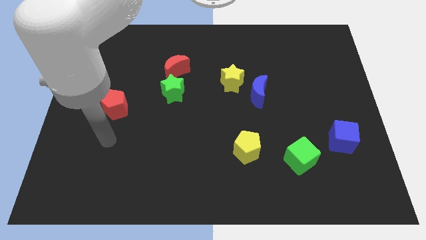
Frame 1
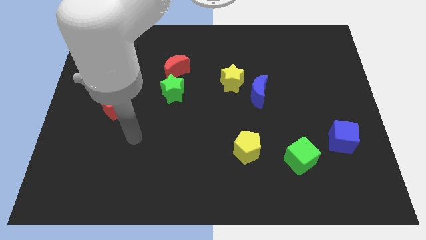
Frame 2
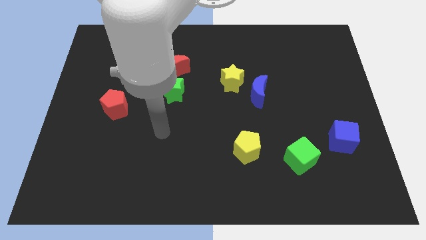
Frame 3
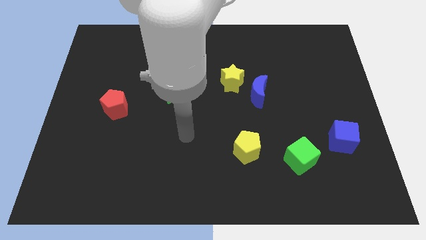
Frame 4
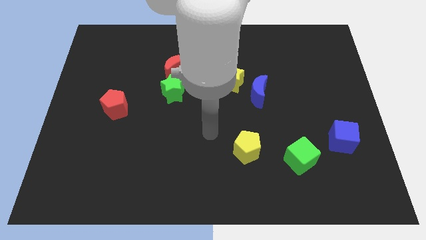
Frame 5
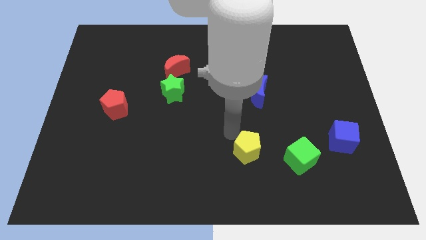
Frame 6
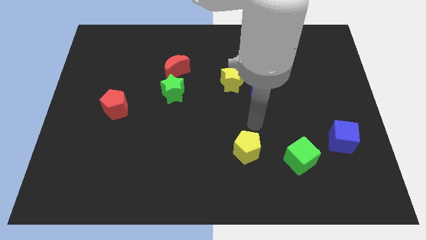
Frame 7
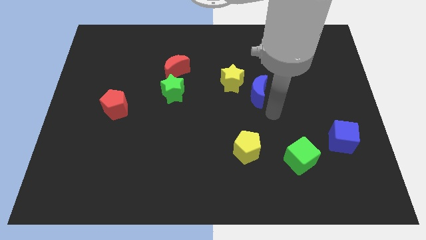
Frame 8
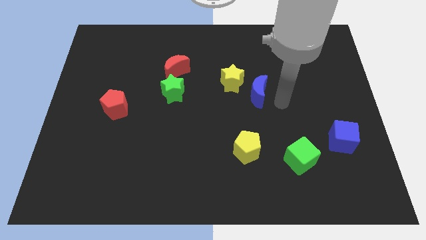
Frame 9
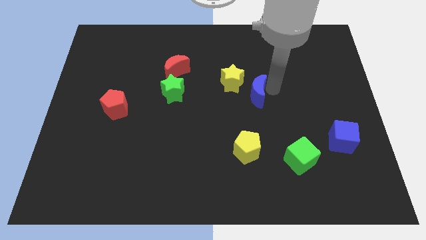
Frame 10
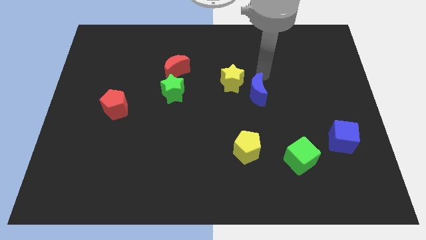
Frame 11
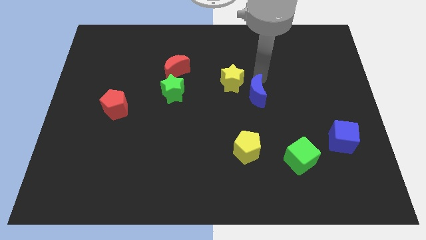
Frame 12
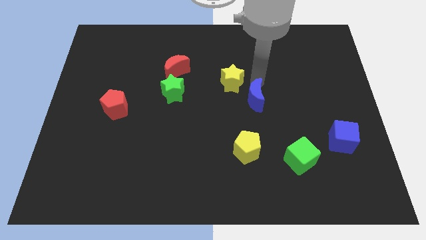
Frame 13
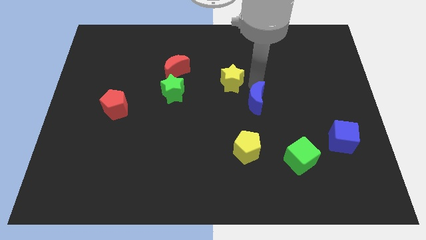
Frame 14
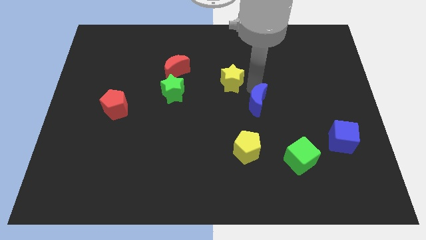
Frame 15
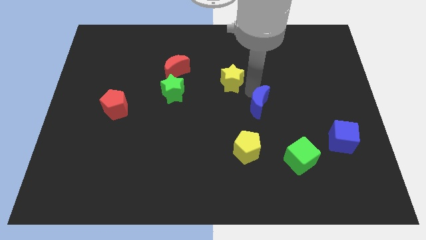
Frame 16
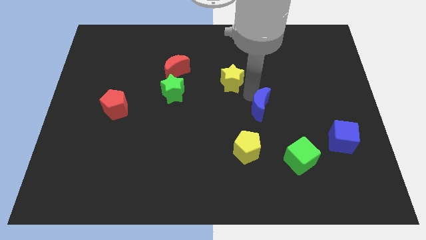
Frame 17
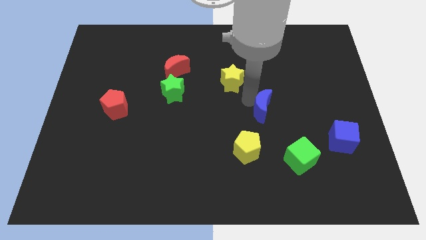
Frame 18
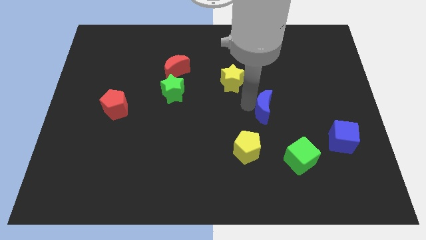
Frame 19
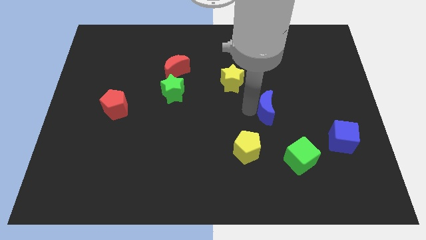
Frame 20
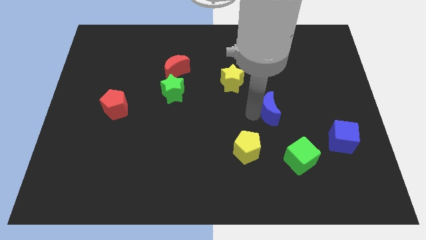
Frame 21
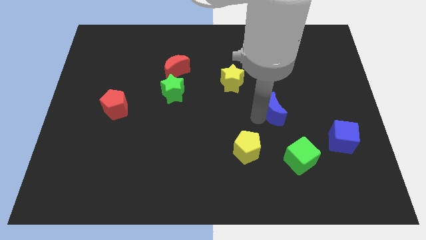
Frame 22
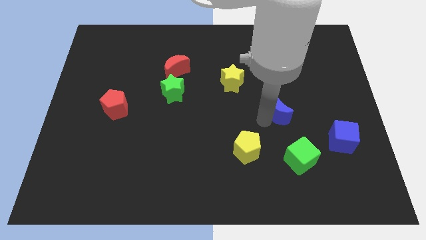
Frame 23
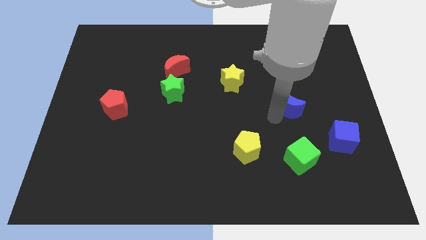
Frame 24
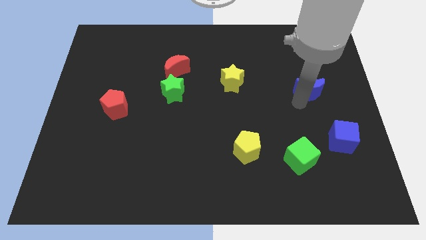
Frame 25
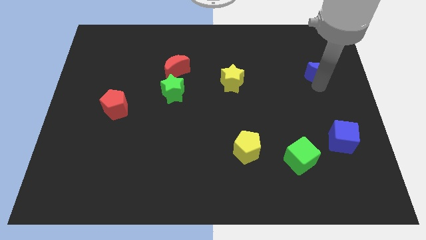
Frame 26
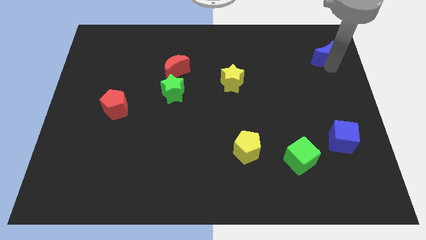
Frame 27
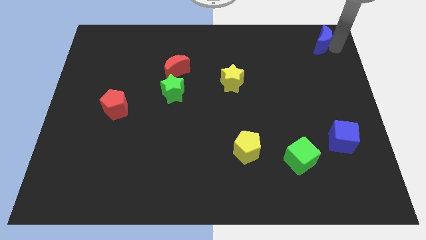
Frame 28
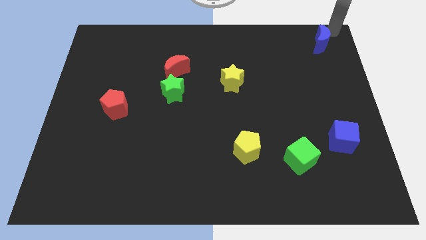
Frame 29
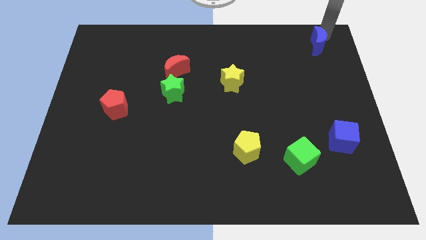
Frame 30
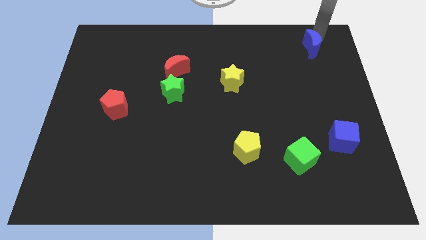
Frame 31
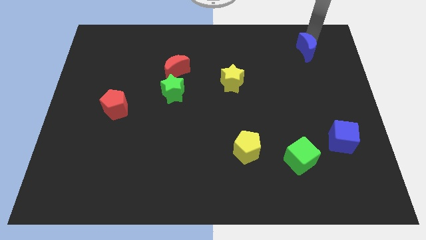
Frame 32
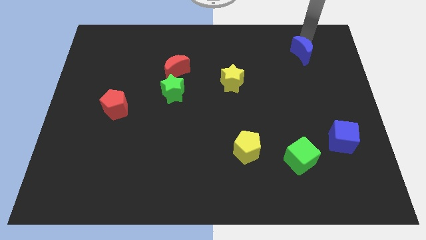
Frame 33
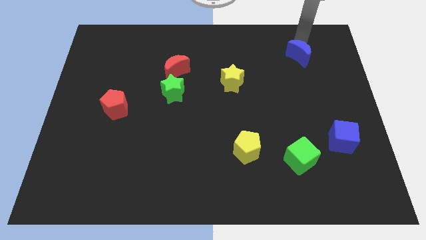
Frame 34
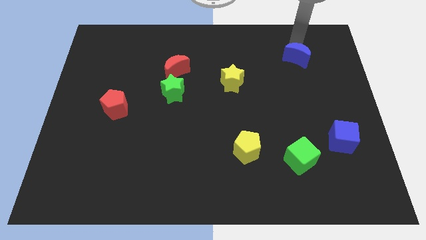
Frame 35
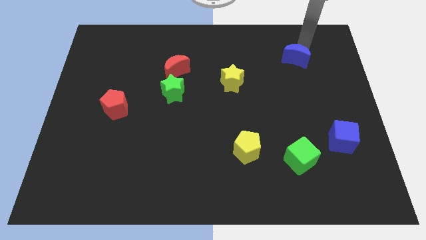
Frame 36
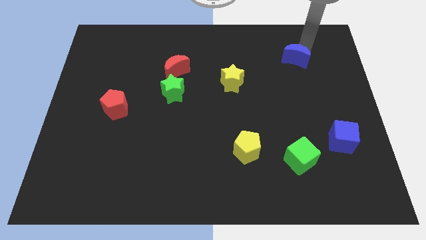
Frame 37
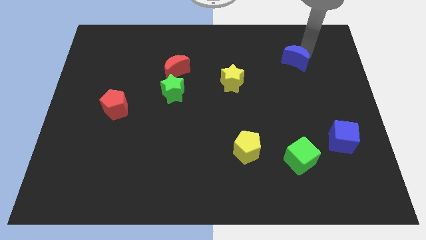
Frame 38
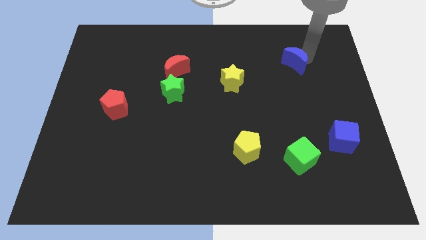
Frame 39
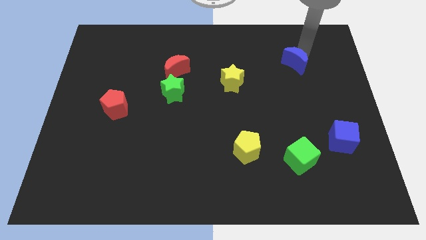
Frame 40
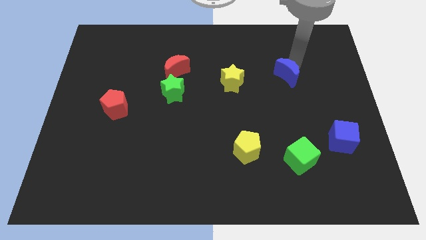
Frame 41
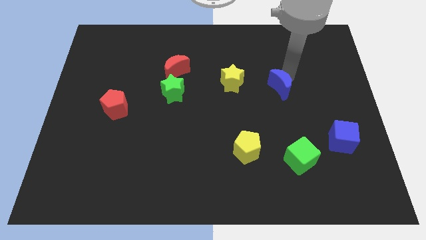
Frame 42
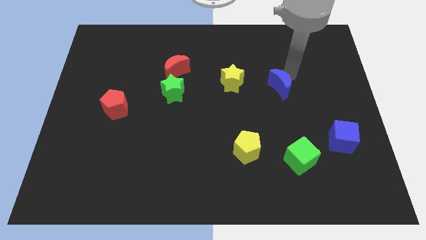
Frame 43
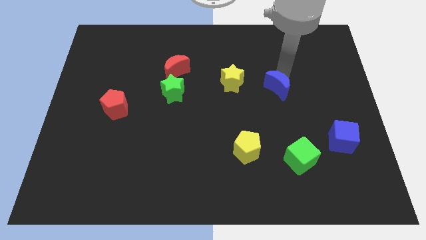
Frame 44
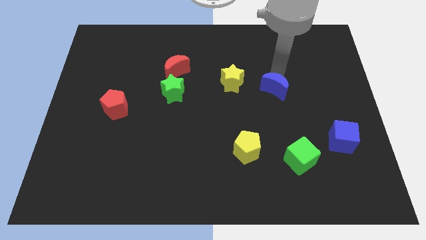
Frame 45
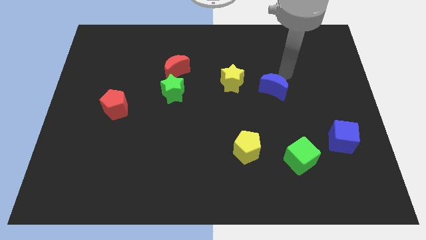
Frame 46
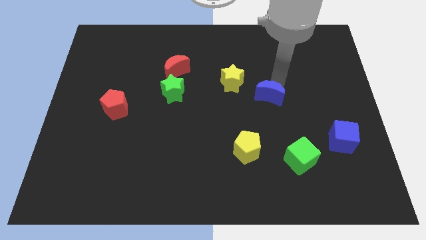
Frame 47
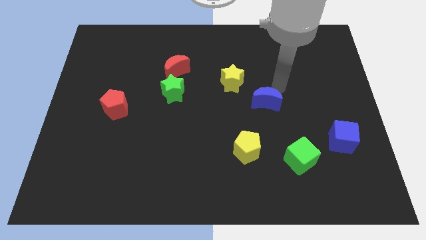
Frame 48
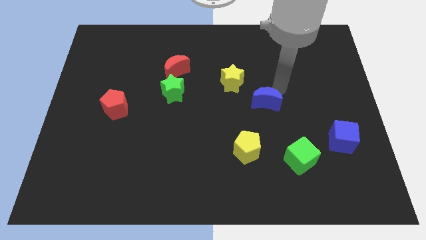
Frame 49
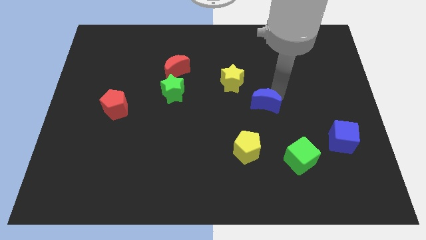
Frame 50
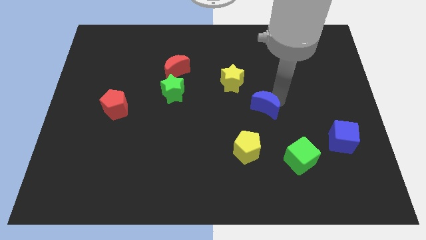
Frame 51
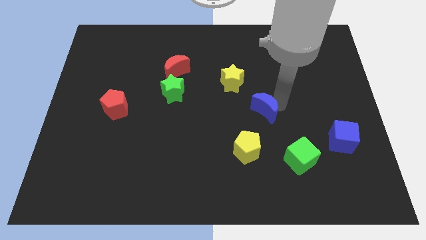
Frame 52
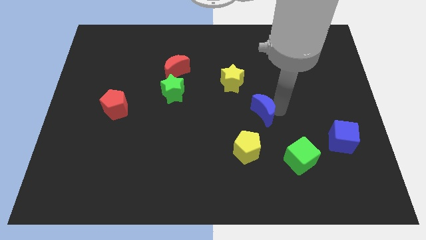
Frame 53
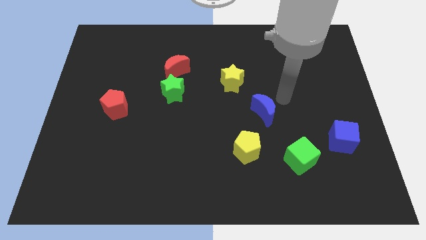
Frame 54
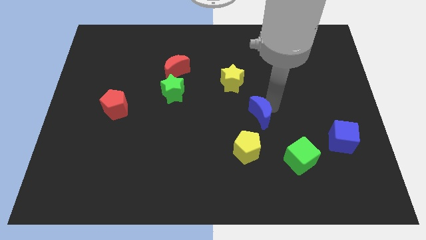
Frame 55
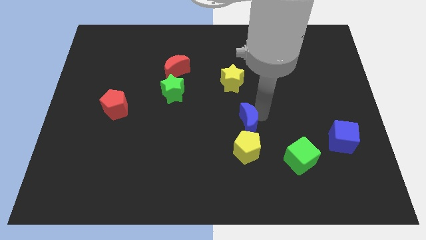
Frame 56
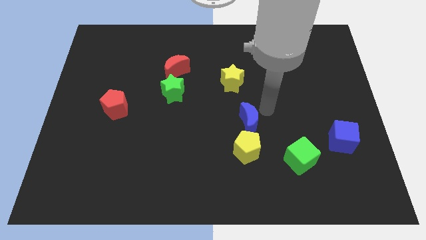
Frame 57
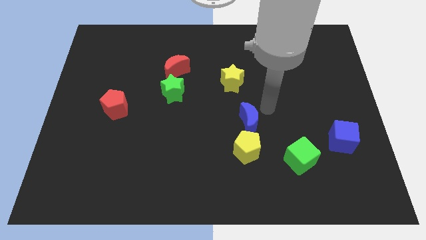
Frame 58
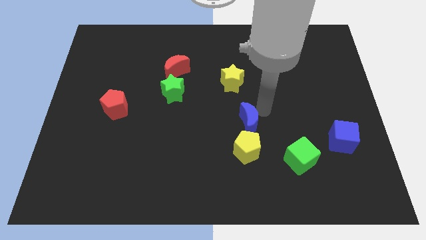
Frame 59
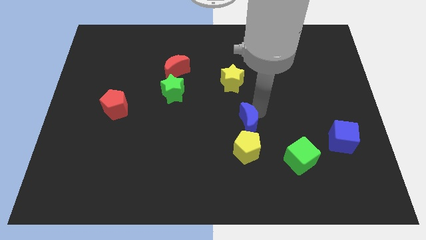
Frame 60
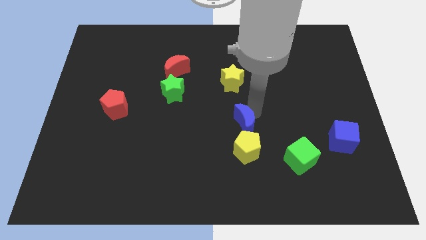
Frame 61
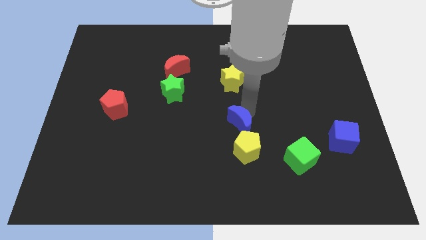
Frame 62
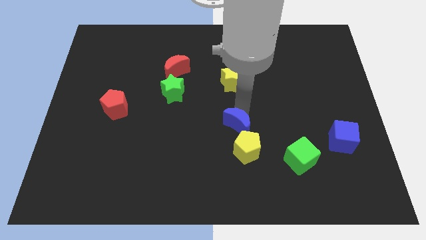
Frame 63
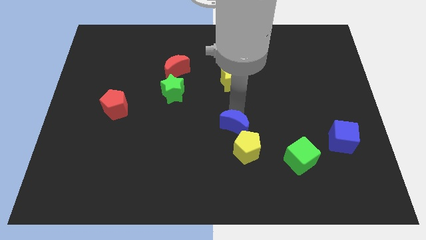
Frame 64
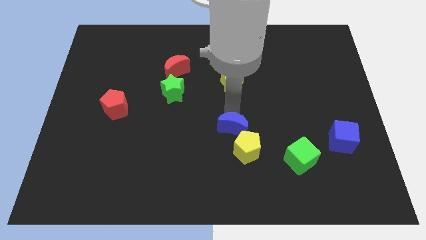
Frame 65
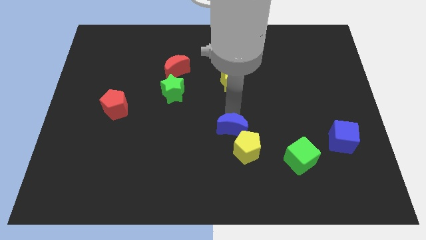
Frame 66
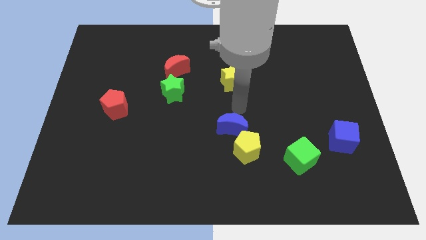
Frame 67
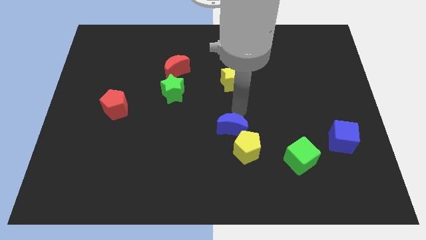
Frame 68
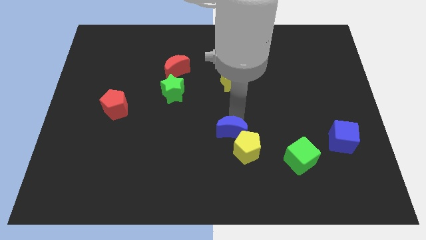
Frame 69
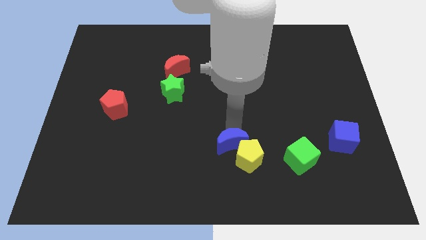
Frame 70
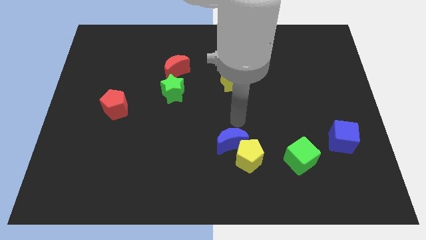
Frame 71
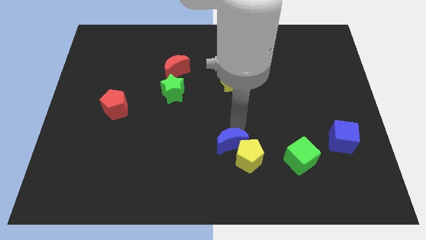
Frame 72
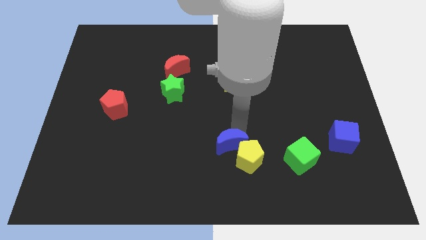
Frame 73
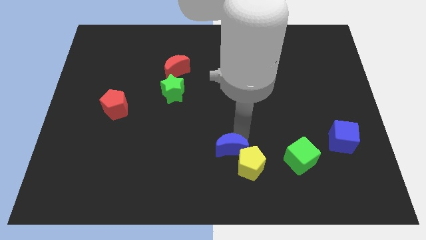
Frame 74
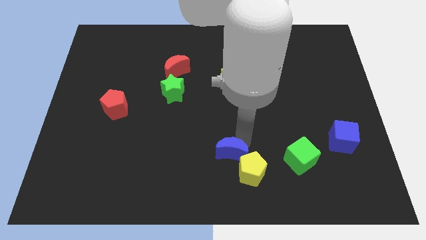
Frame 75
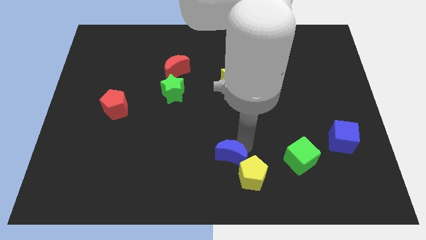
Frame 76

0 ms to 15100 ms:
push the blue moon to the bottom side
